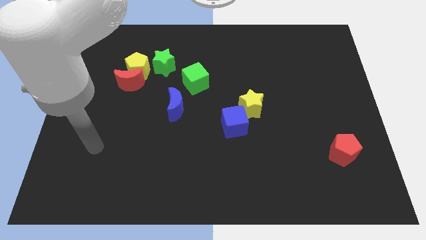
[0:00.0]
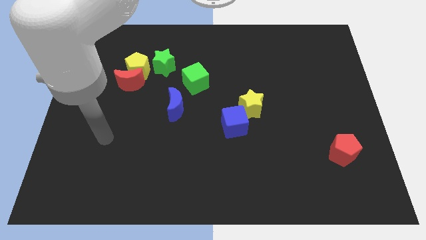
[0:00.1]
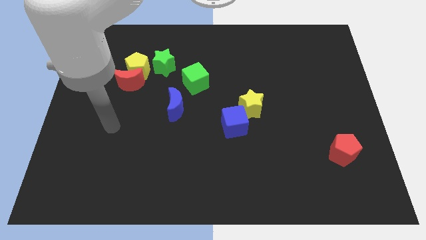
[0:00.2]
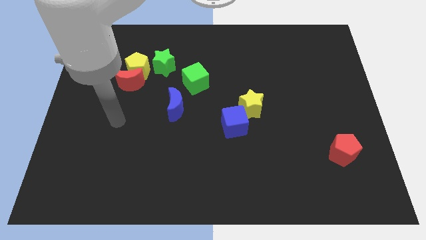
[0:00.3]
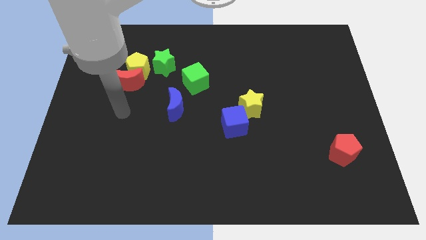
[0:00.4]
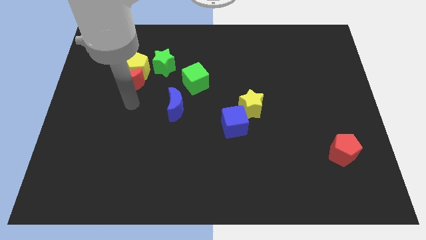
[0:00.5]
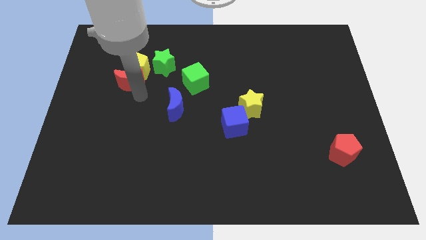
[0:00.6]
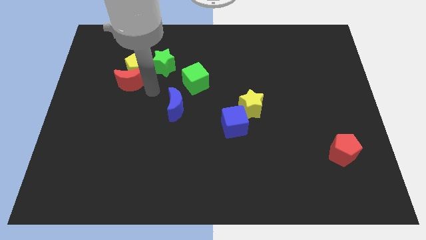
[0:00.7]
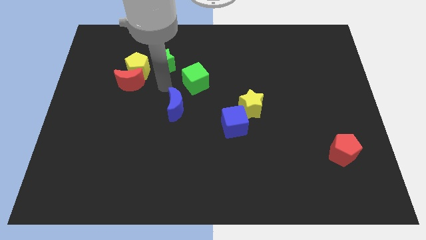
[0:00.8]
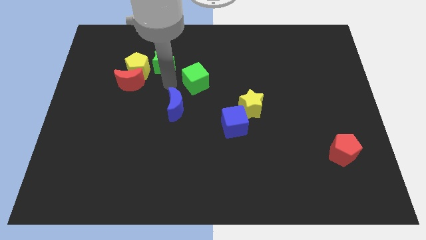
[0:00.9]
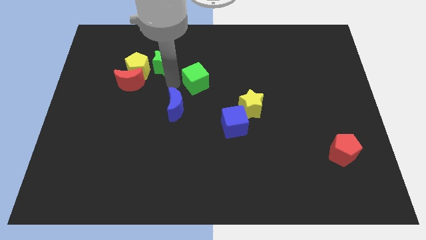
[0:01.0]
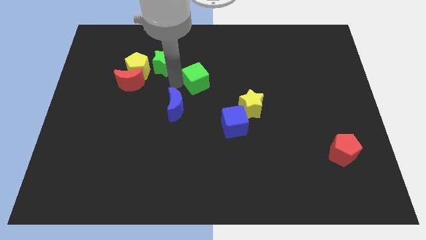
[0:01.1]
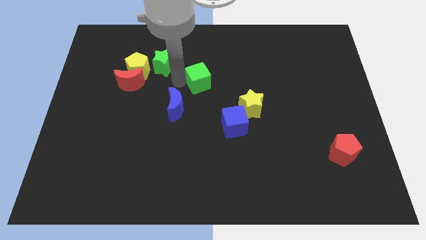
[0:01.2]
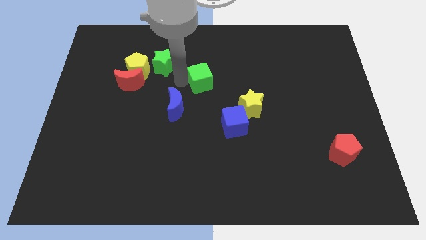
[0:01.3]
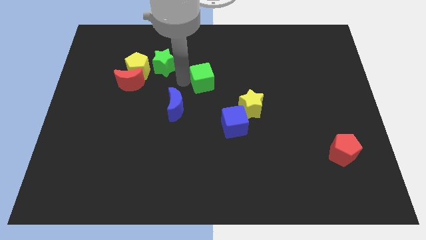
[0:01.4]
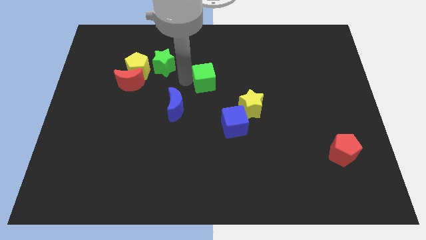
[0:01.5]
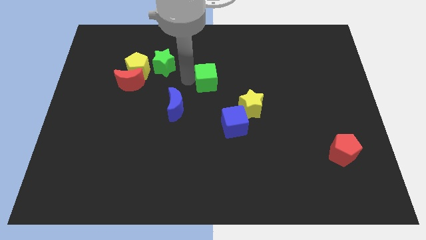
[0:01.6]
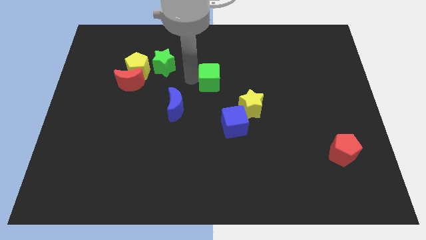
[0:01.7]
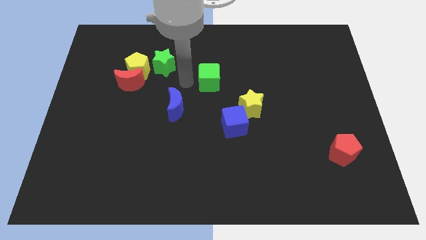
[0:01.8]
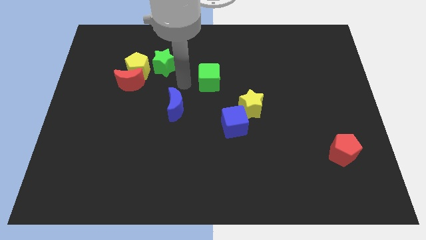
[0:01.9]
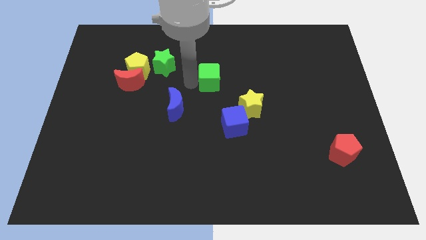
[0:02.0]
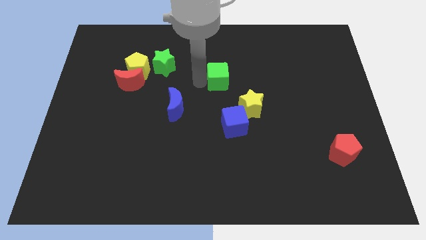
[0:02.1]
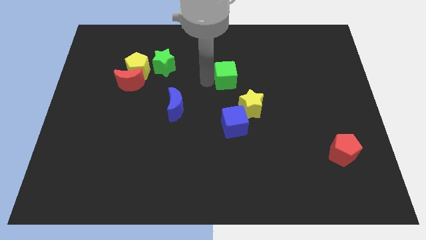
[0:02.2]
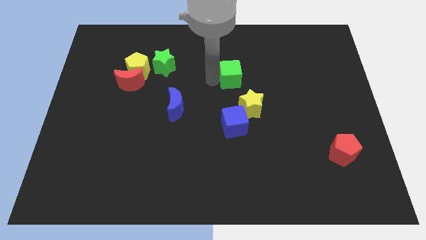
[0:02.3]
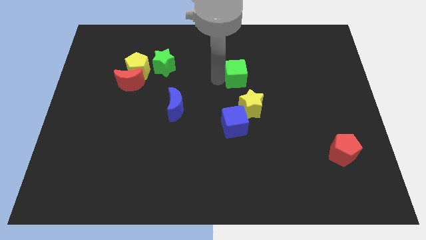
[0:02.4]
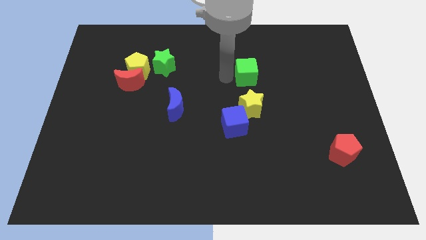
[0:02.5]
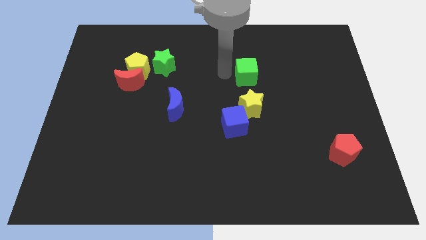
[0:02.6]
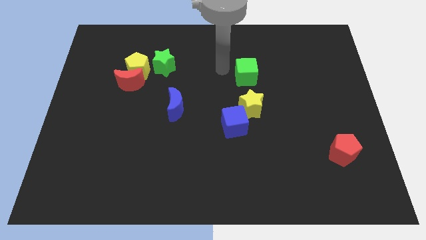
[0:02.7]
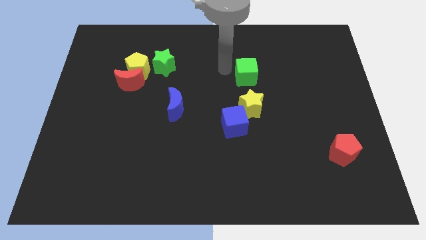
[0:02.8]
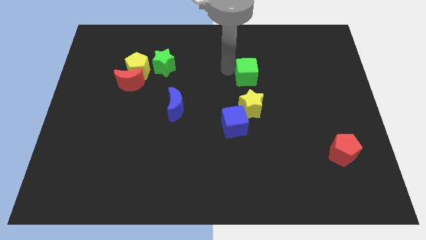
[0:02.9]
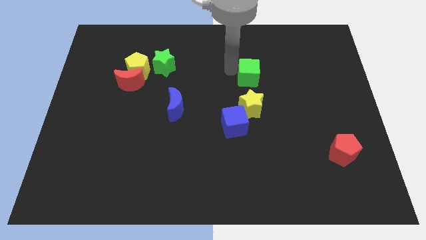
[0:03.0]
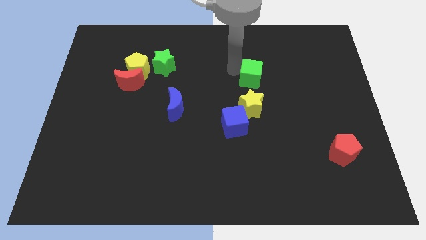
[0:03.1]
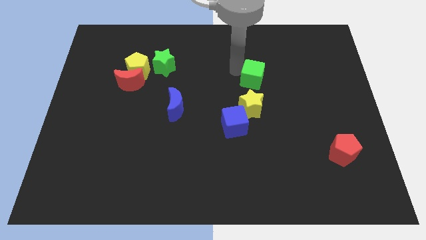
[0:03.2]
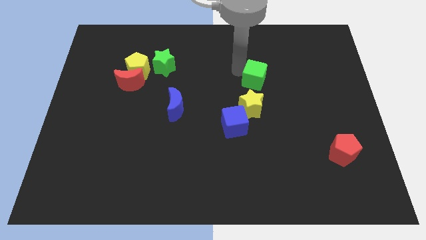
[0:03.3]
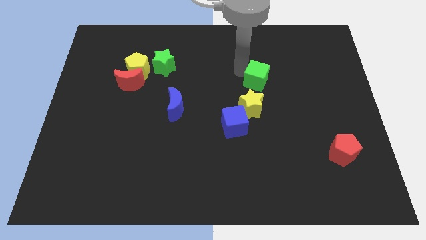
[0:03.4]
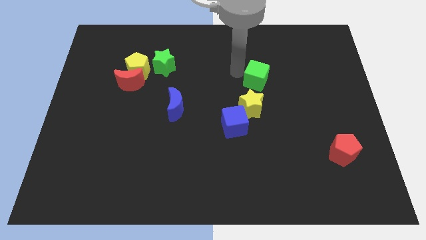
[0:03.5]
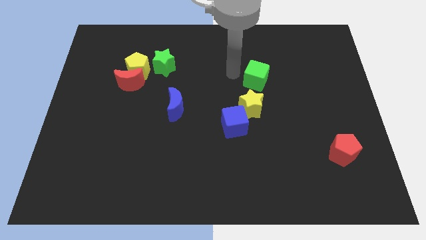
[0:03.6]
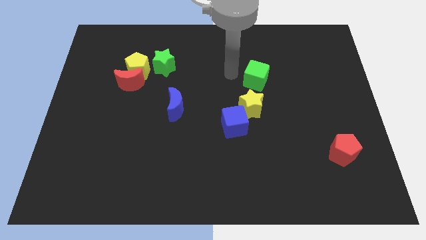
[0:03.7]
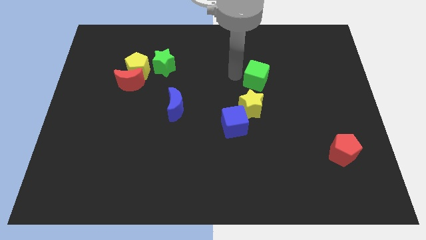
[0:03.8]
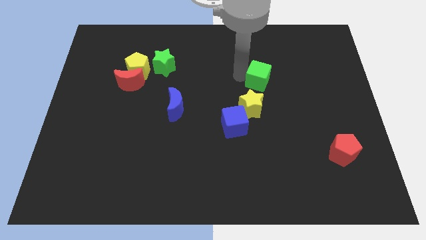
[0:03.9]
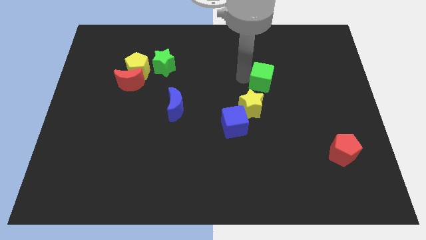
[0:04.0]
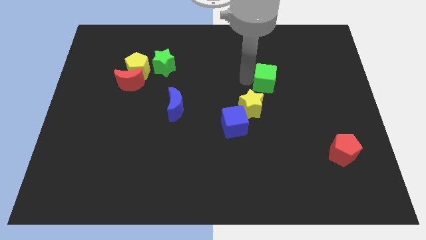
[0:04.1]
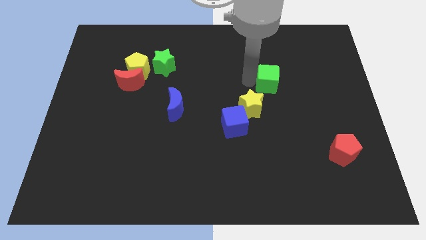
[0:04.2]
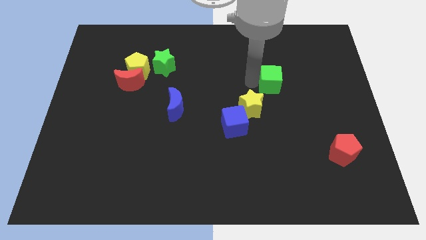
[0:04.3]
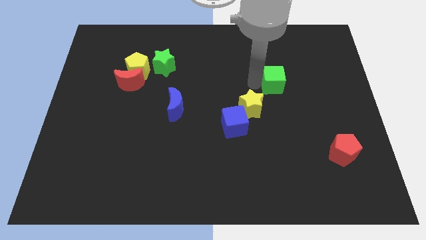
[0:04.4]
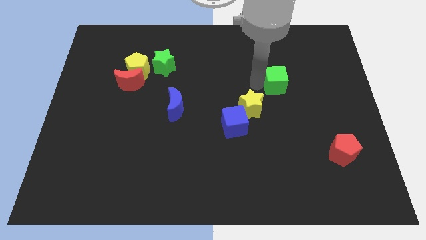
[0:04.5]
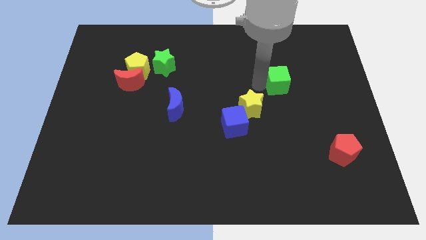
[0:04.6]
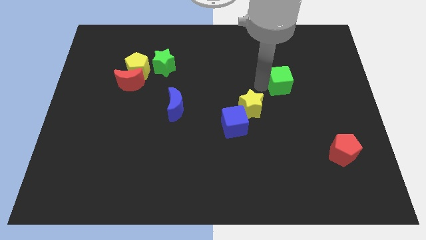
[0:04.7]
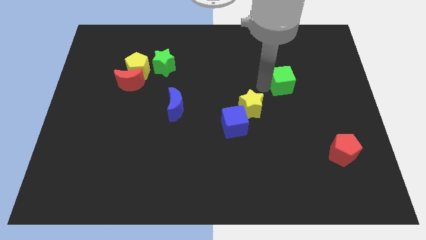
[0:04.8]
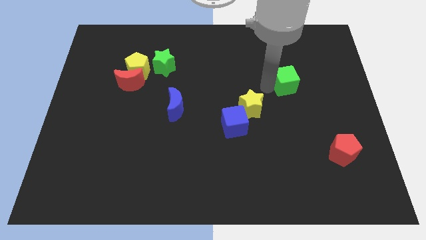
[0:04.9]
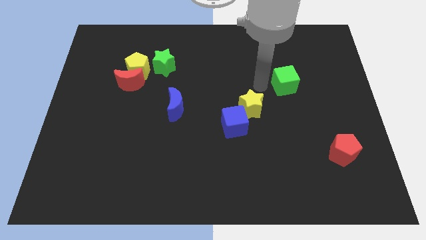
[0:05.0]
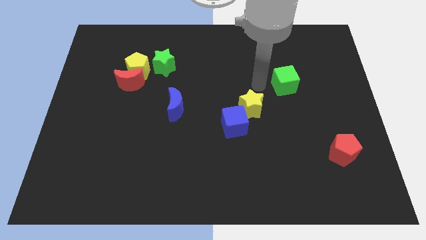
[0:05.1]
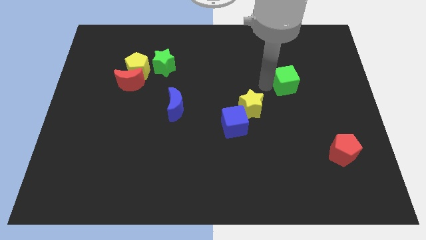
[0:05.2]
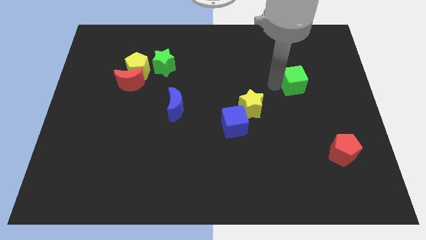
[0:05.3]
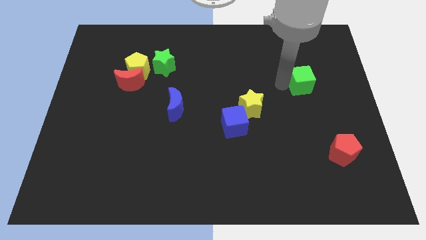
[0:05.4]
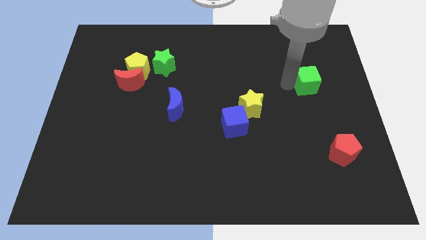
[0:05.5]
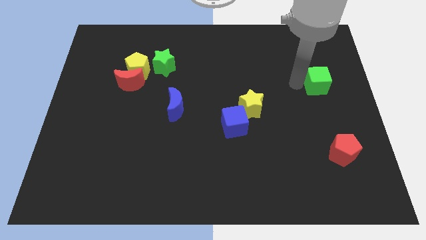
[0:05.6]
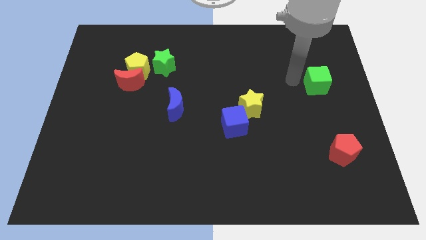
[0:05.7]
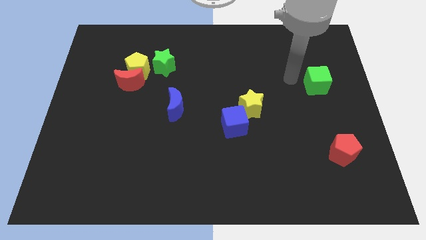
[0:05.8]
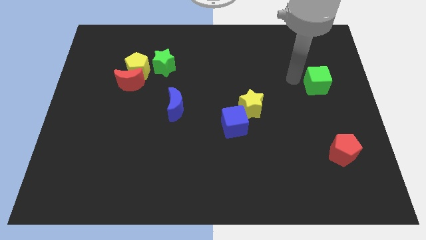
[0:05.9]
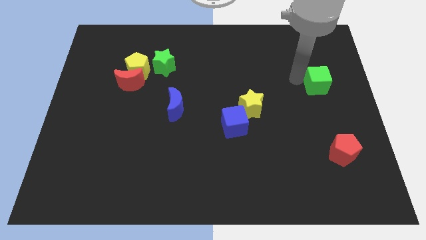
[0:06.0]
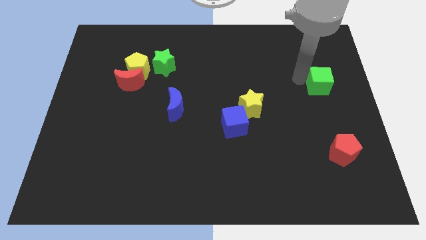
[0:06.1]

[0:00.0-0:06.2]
put the green cube to the right side
